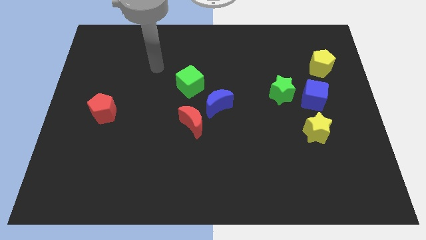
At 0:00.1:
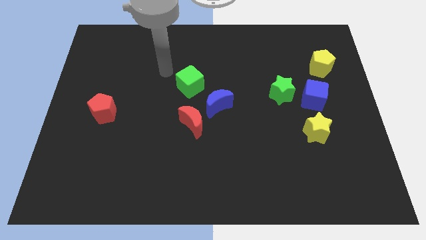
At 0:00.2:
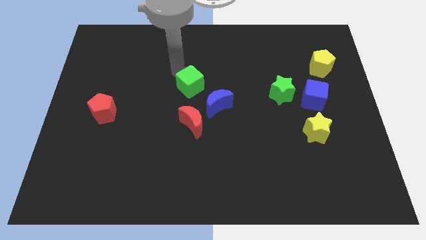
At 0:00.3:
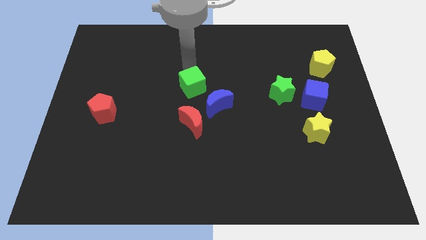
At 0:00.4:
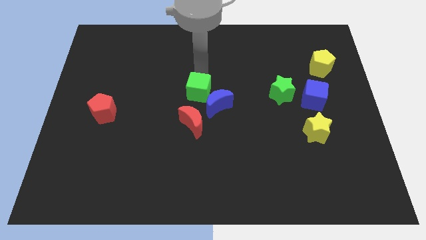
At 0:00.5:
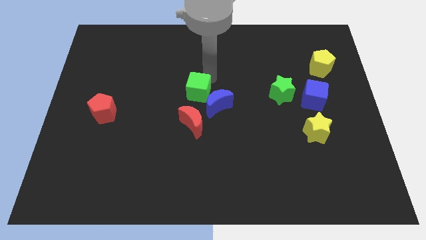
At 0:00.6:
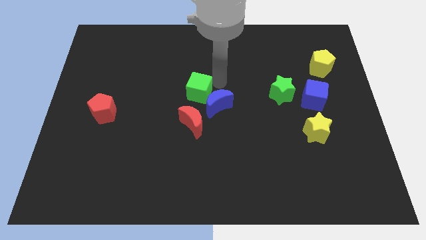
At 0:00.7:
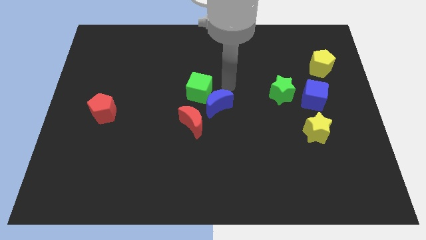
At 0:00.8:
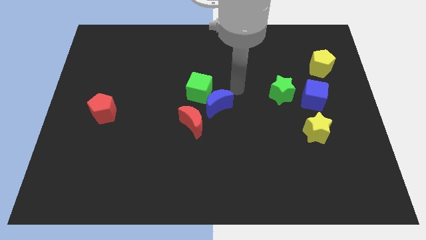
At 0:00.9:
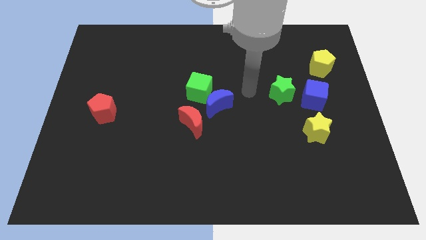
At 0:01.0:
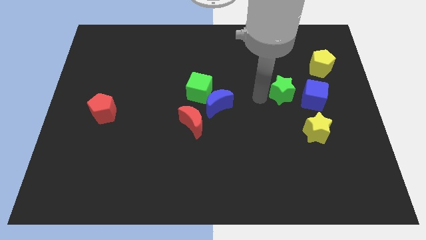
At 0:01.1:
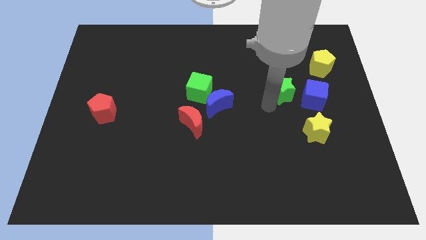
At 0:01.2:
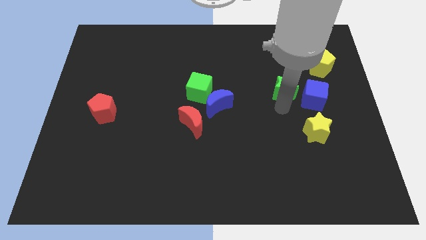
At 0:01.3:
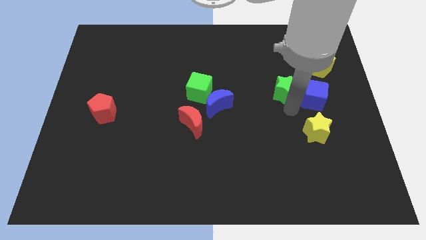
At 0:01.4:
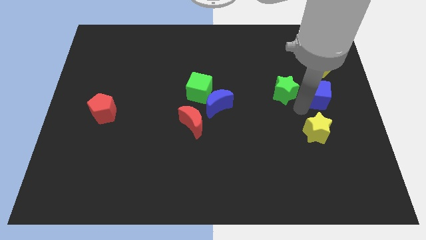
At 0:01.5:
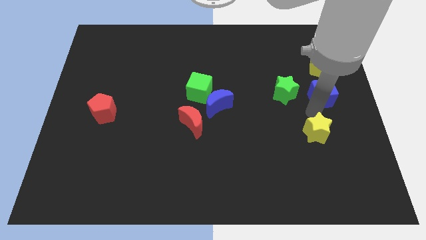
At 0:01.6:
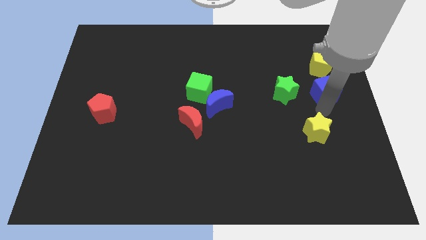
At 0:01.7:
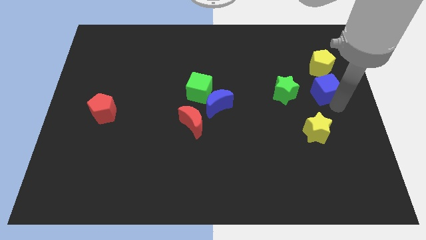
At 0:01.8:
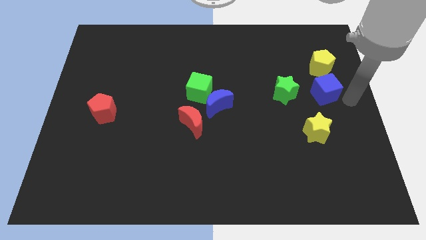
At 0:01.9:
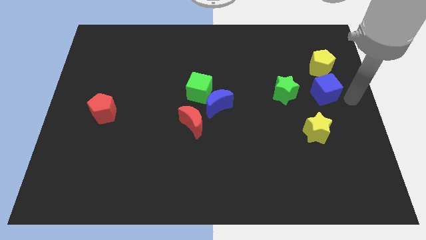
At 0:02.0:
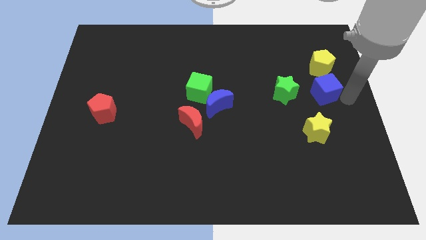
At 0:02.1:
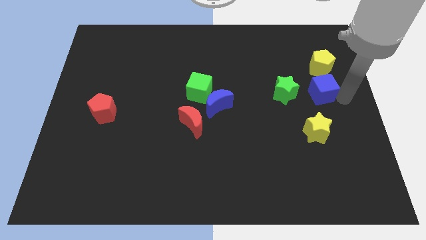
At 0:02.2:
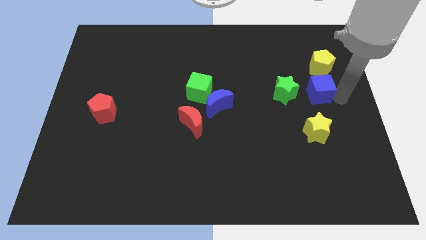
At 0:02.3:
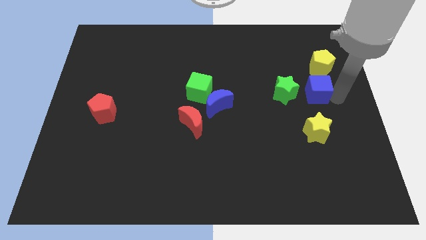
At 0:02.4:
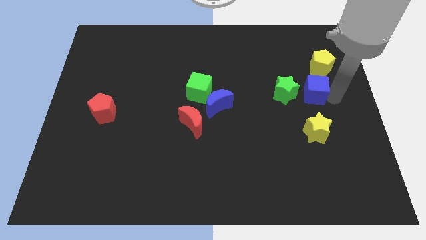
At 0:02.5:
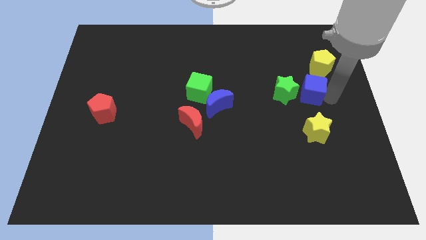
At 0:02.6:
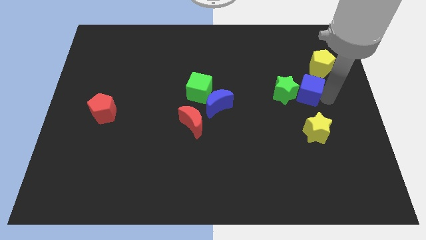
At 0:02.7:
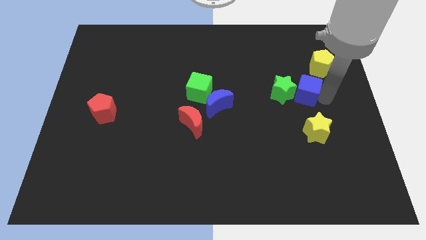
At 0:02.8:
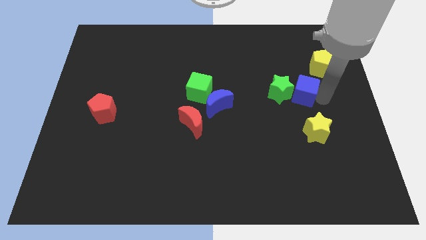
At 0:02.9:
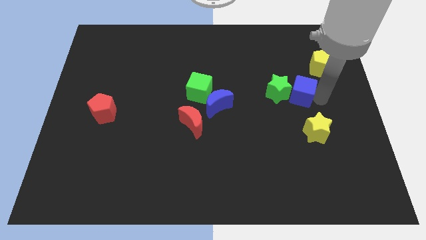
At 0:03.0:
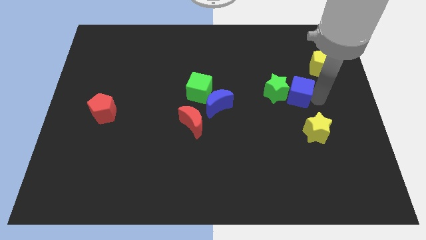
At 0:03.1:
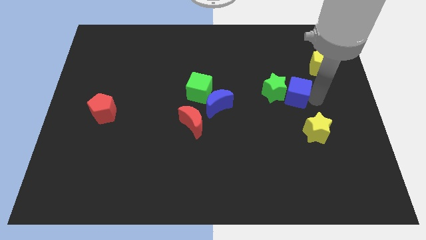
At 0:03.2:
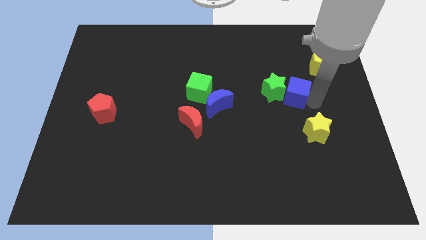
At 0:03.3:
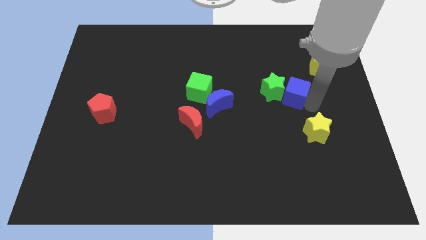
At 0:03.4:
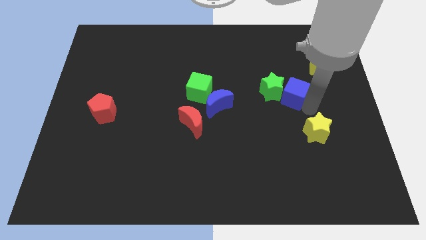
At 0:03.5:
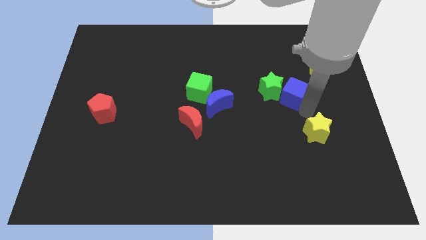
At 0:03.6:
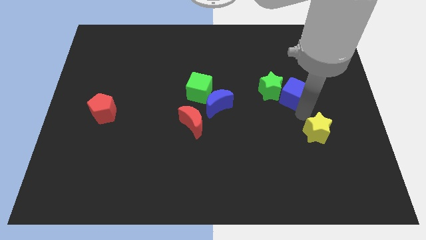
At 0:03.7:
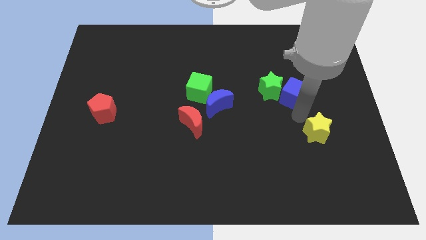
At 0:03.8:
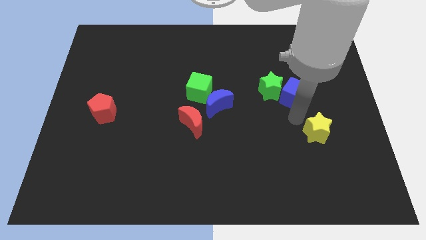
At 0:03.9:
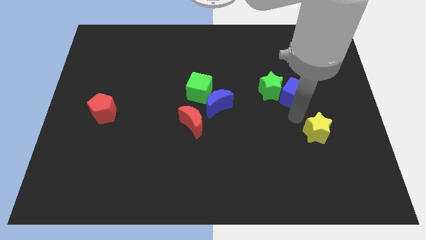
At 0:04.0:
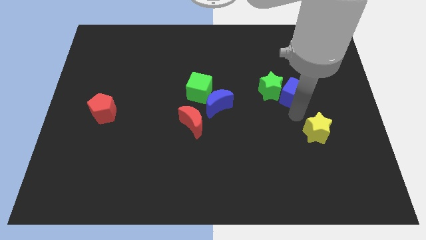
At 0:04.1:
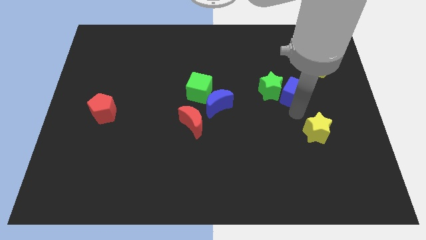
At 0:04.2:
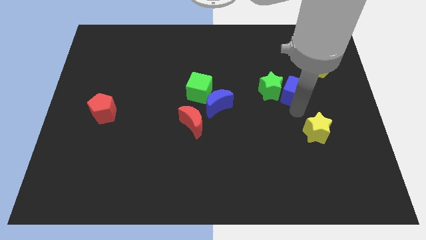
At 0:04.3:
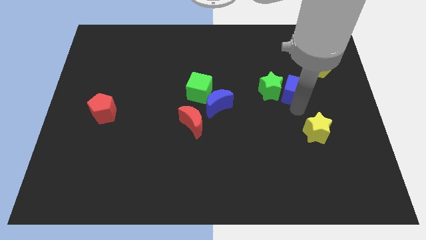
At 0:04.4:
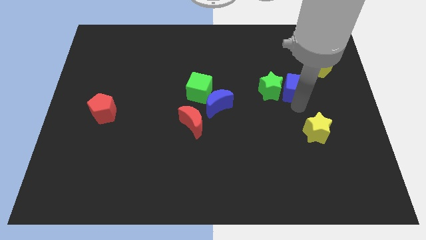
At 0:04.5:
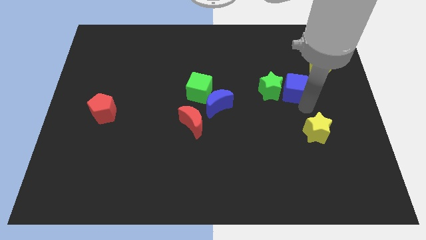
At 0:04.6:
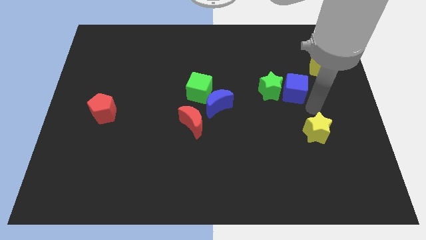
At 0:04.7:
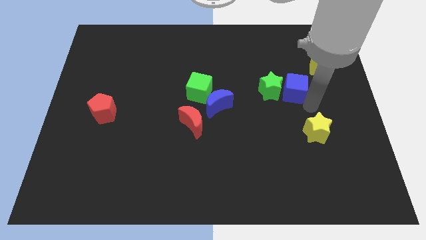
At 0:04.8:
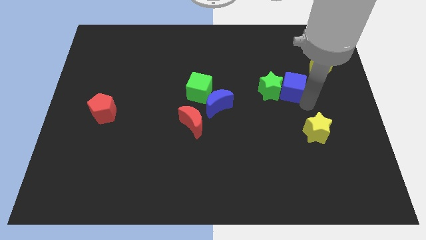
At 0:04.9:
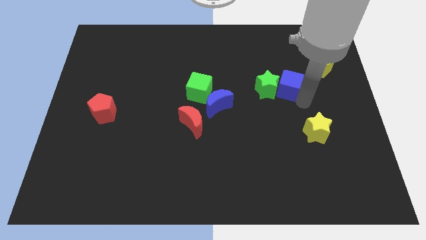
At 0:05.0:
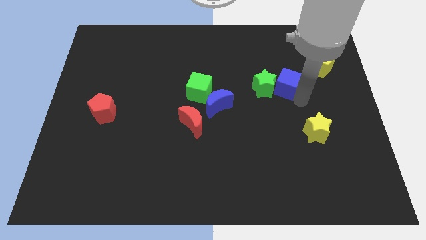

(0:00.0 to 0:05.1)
slightly slide the blue cube upwards and to the left diagonally

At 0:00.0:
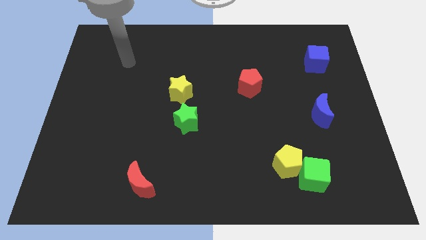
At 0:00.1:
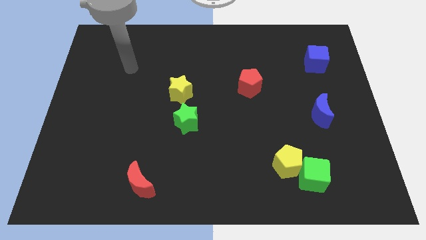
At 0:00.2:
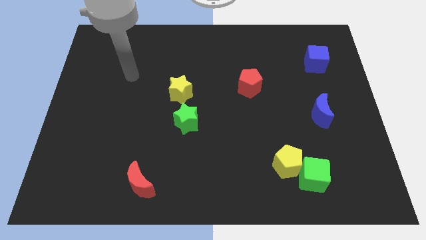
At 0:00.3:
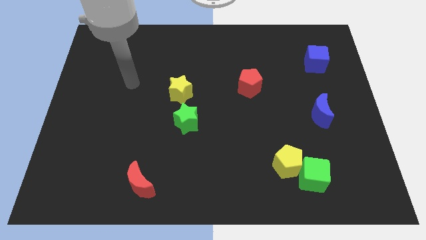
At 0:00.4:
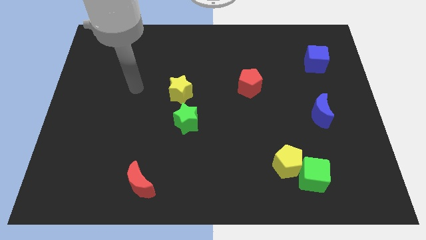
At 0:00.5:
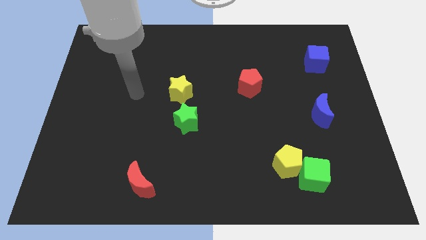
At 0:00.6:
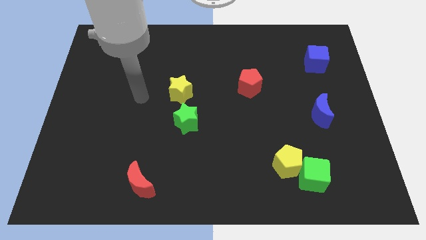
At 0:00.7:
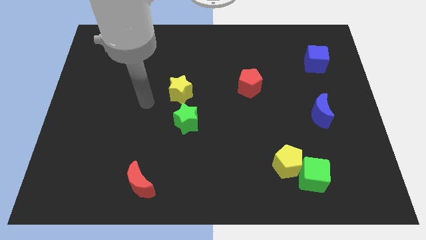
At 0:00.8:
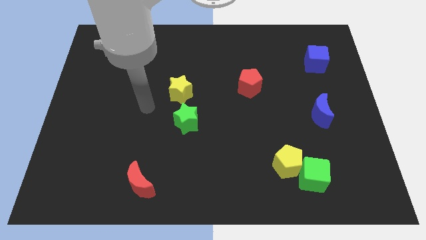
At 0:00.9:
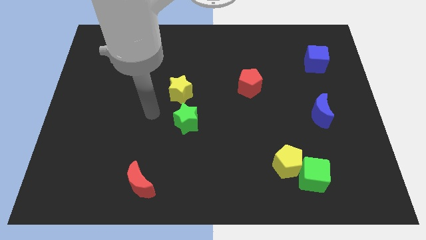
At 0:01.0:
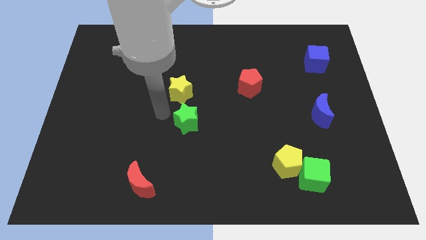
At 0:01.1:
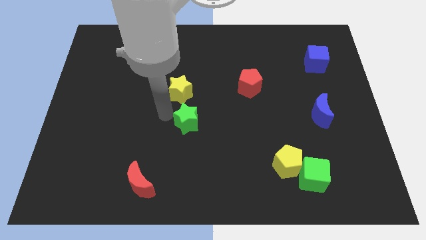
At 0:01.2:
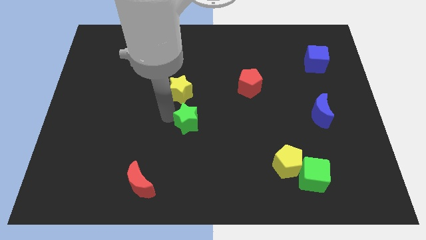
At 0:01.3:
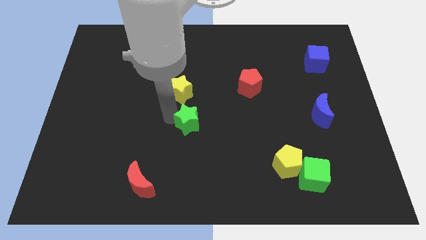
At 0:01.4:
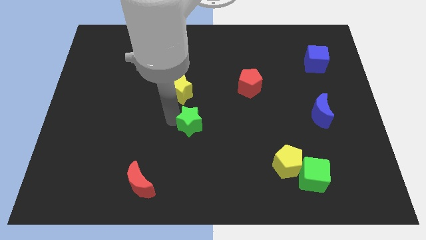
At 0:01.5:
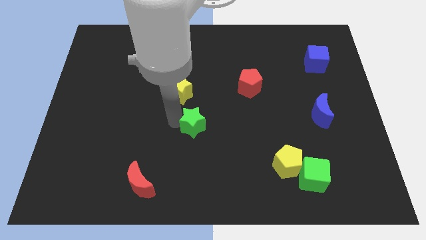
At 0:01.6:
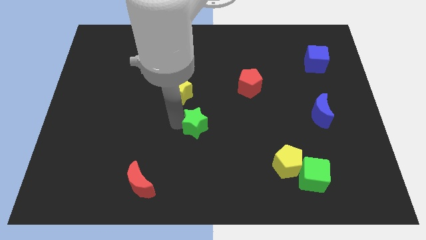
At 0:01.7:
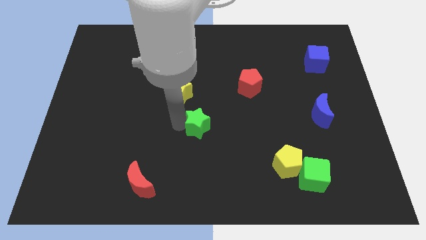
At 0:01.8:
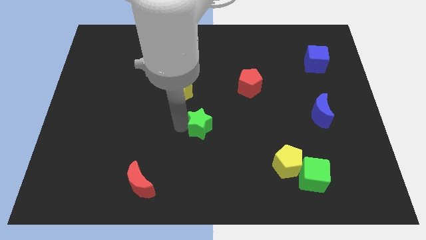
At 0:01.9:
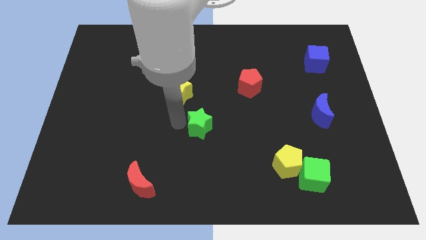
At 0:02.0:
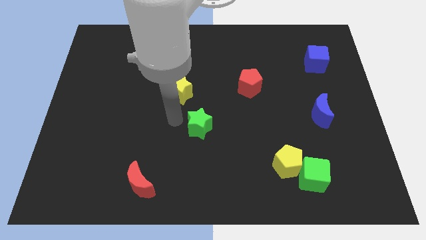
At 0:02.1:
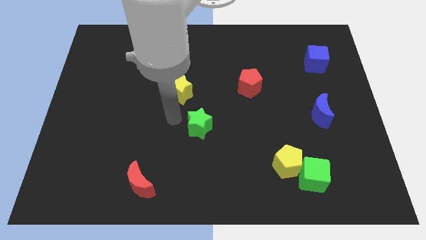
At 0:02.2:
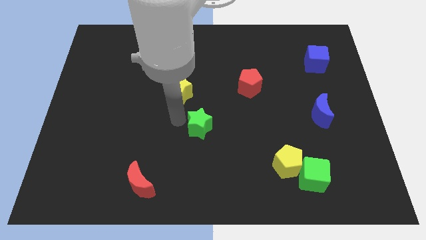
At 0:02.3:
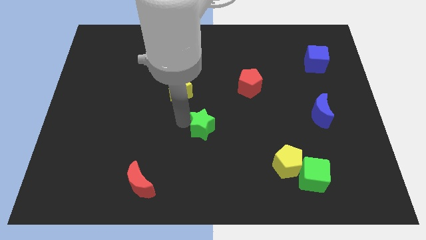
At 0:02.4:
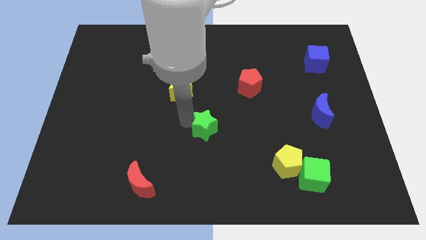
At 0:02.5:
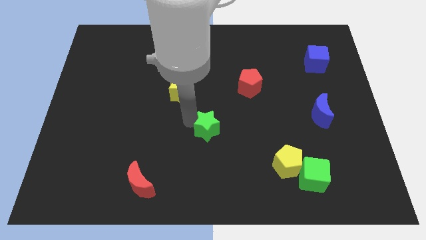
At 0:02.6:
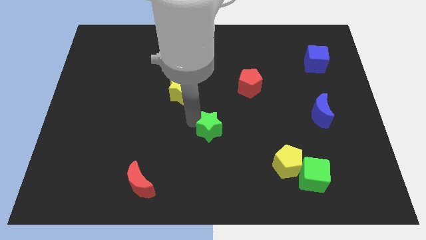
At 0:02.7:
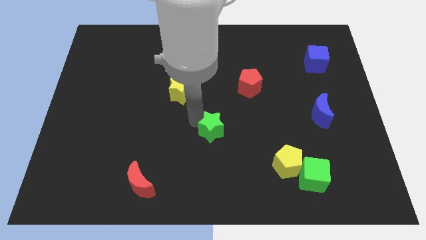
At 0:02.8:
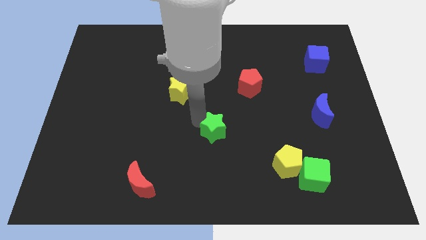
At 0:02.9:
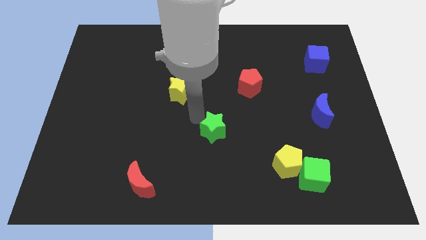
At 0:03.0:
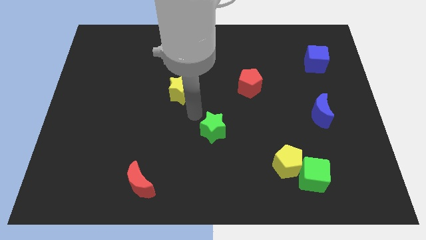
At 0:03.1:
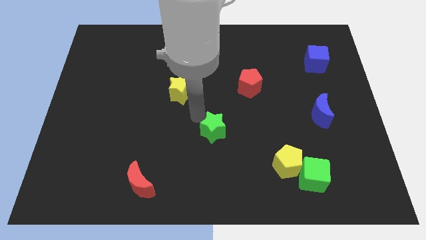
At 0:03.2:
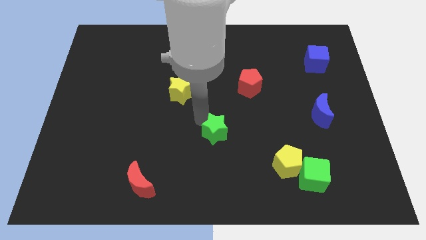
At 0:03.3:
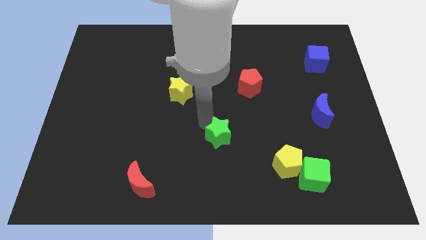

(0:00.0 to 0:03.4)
push the green star a little bit down and right diagonally
